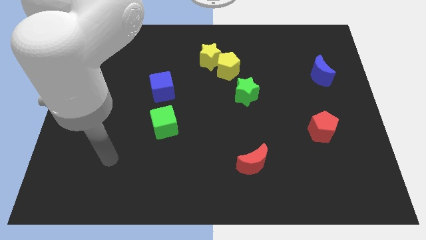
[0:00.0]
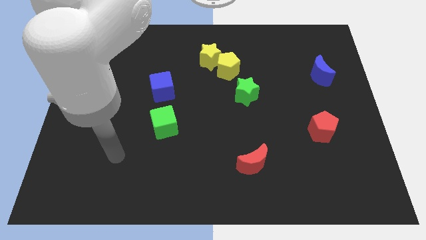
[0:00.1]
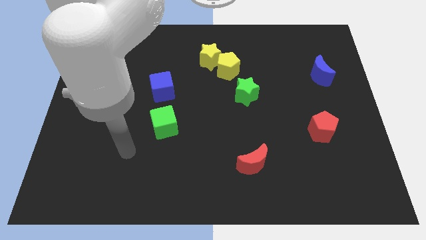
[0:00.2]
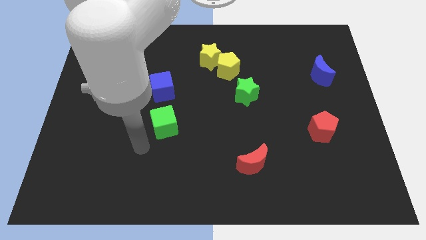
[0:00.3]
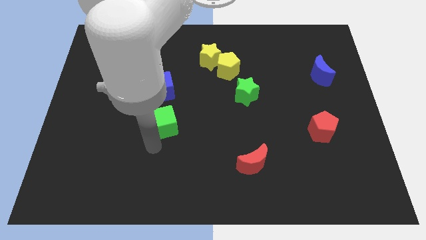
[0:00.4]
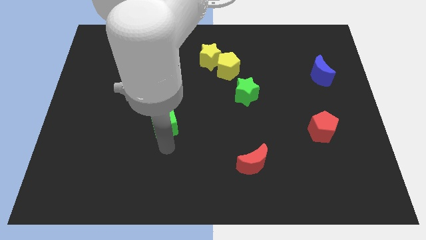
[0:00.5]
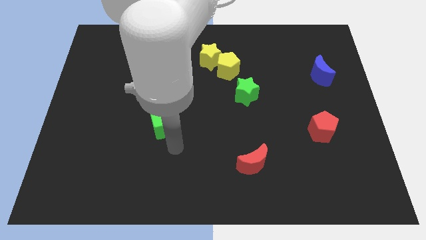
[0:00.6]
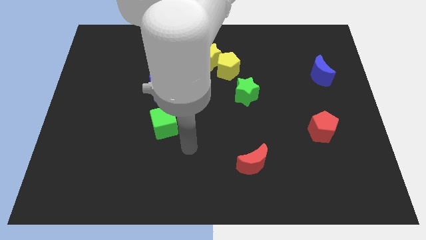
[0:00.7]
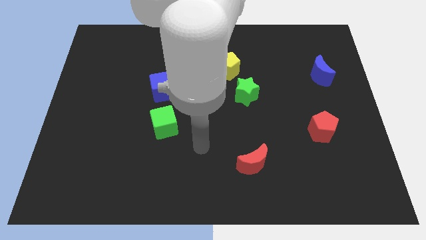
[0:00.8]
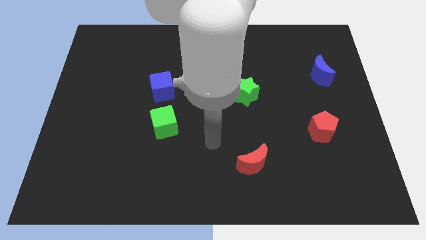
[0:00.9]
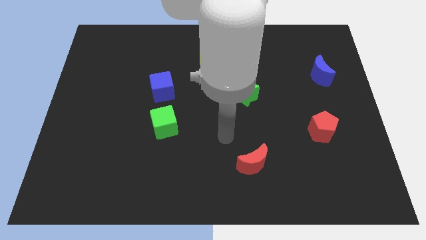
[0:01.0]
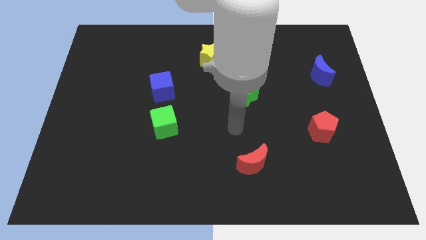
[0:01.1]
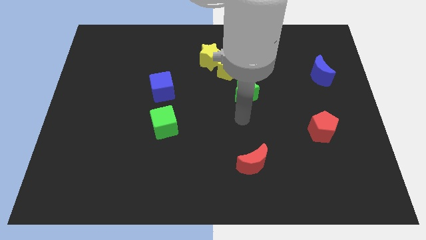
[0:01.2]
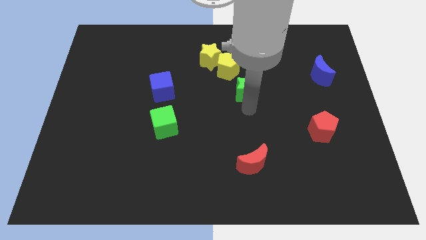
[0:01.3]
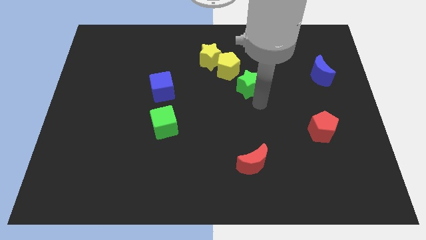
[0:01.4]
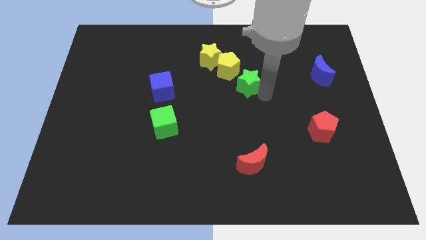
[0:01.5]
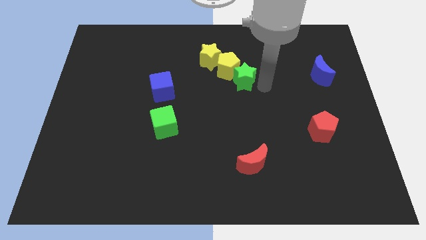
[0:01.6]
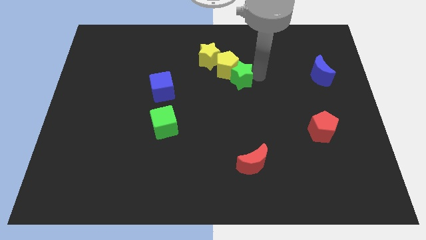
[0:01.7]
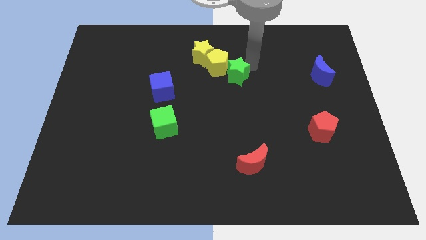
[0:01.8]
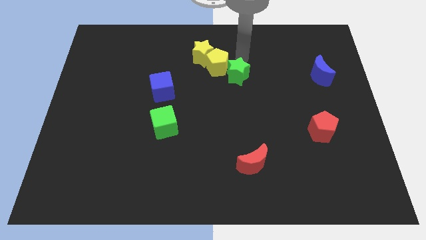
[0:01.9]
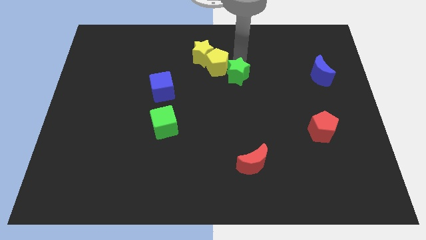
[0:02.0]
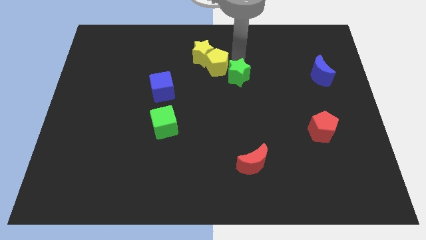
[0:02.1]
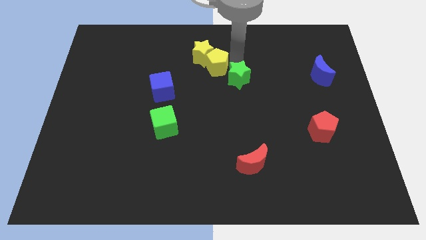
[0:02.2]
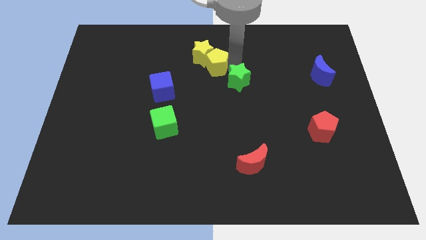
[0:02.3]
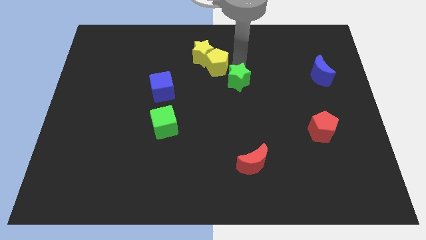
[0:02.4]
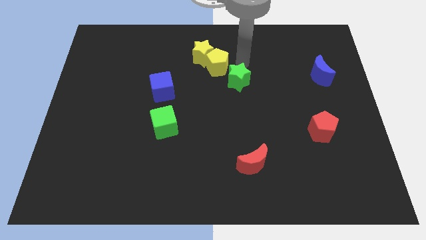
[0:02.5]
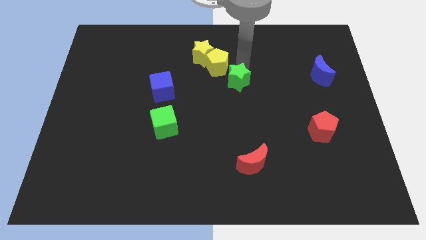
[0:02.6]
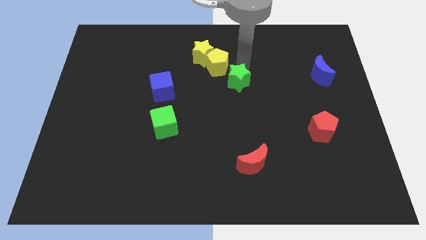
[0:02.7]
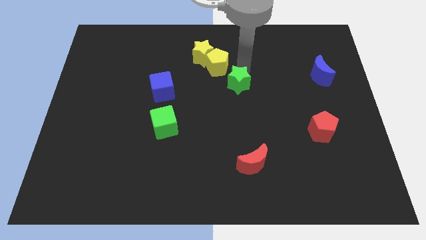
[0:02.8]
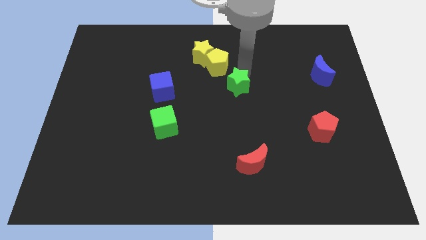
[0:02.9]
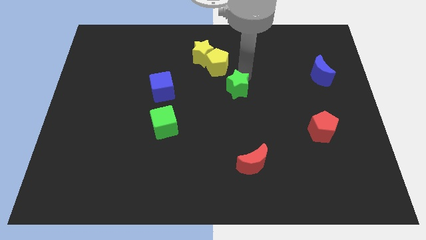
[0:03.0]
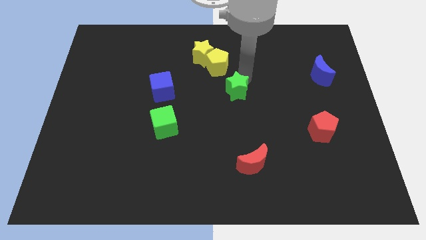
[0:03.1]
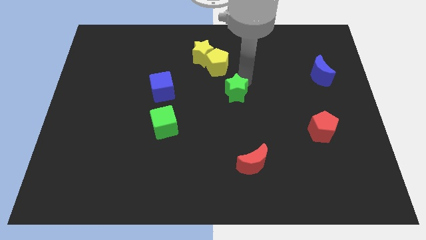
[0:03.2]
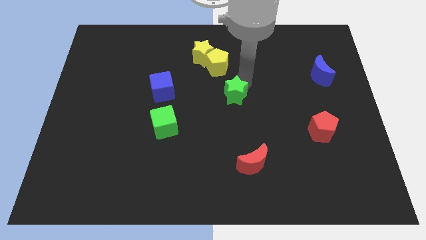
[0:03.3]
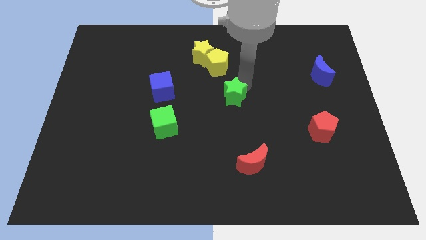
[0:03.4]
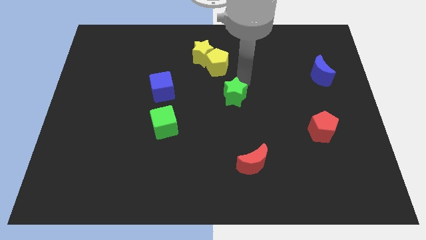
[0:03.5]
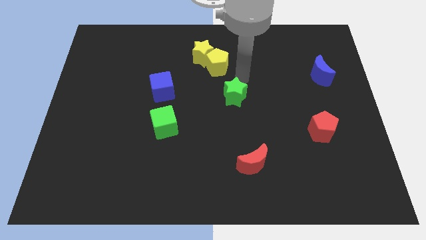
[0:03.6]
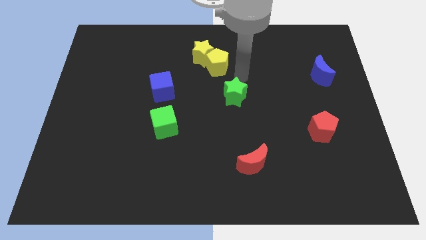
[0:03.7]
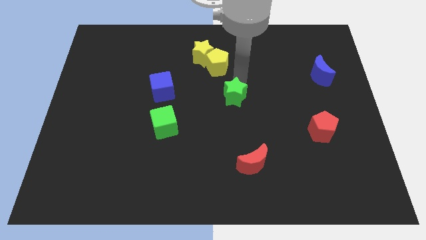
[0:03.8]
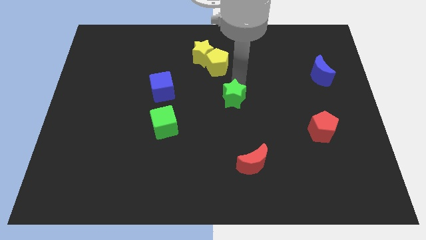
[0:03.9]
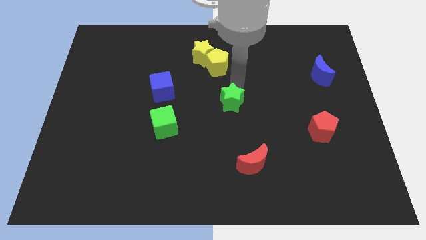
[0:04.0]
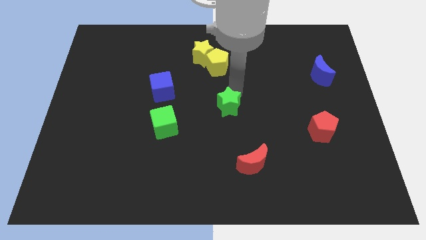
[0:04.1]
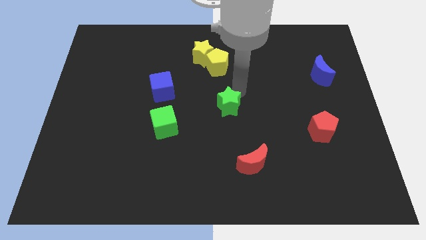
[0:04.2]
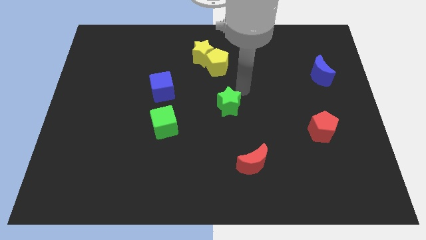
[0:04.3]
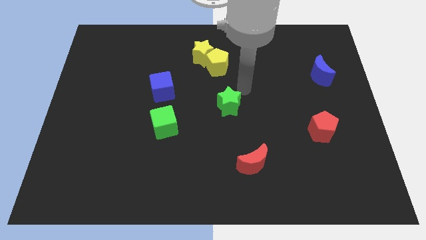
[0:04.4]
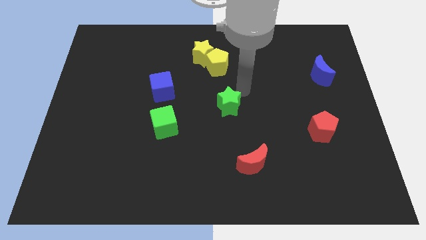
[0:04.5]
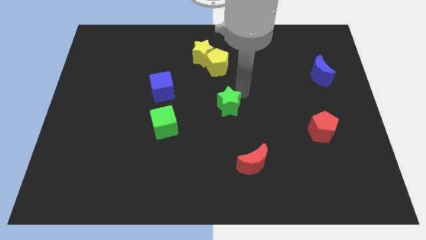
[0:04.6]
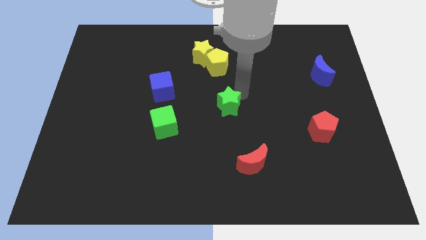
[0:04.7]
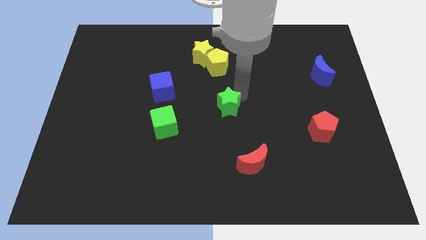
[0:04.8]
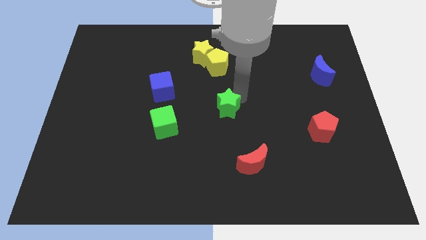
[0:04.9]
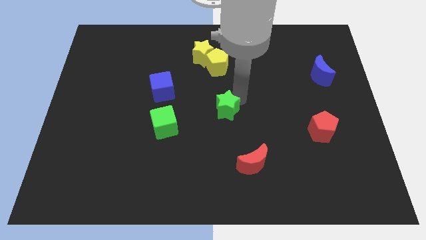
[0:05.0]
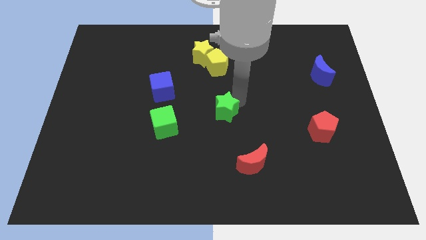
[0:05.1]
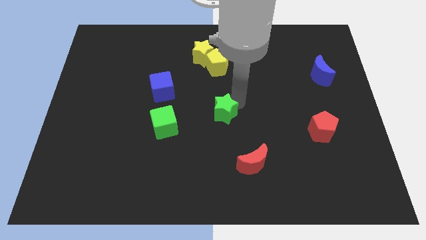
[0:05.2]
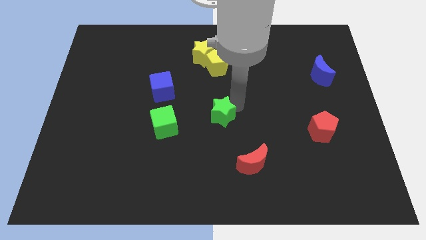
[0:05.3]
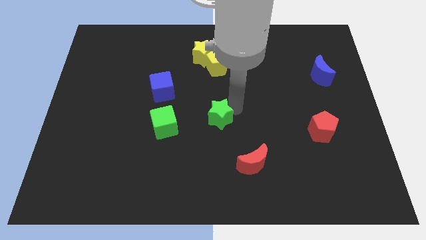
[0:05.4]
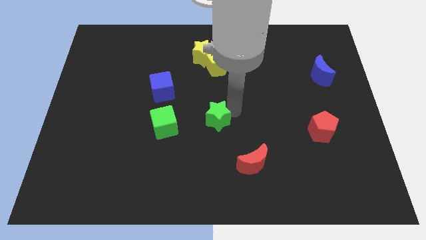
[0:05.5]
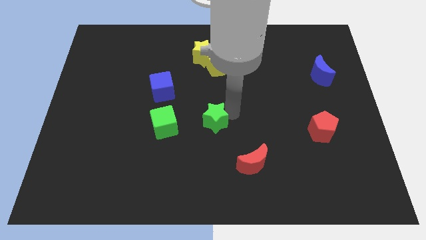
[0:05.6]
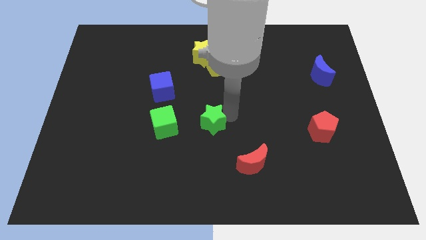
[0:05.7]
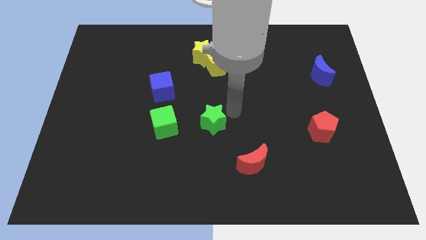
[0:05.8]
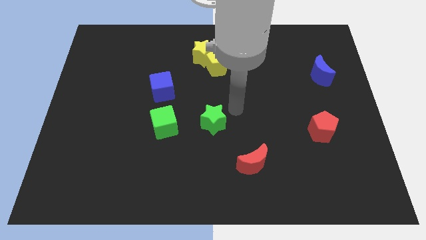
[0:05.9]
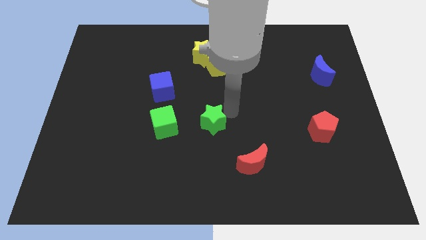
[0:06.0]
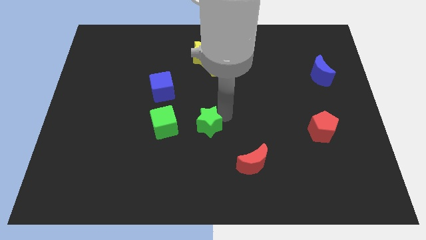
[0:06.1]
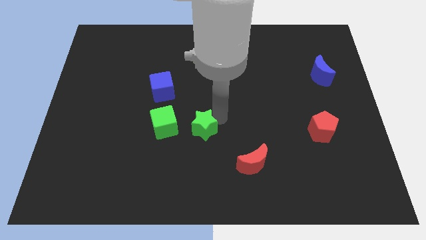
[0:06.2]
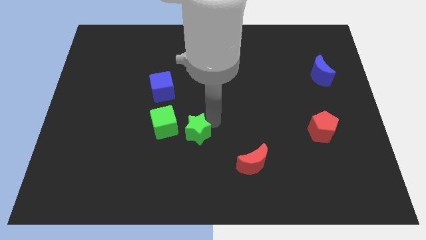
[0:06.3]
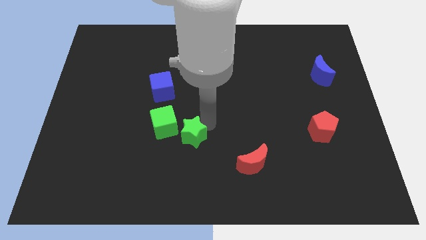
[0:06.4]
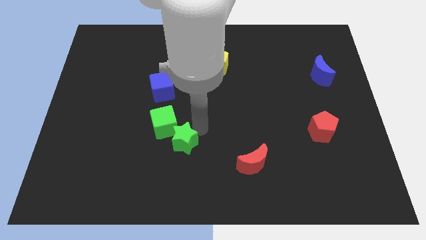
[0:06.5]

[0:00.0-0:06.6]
move the green star to the bottom of the green cube

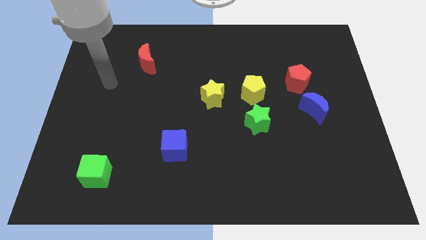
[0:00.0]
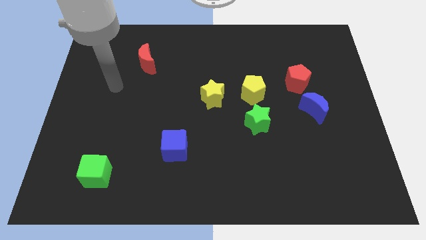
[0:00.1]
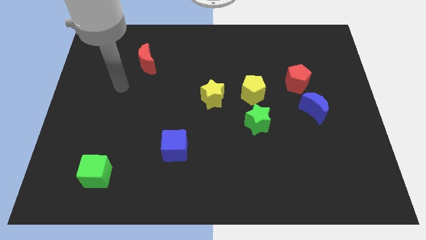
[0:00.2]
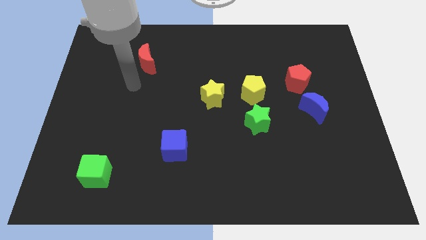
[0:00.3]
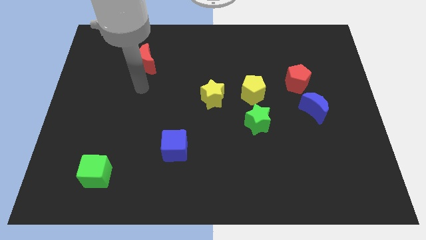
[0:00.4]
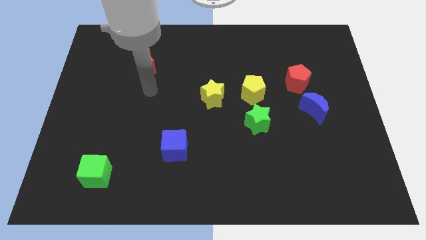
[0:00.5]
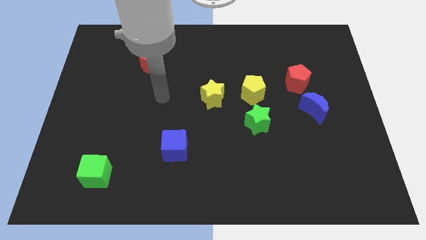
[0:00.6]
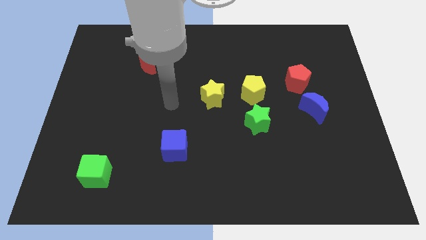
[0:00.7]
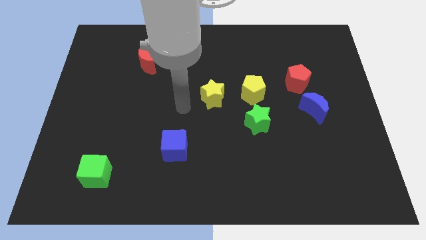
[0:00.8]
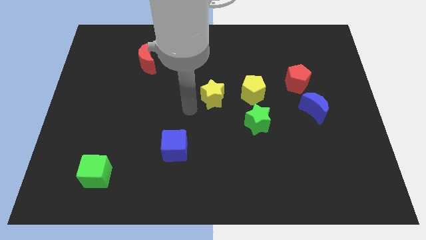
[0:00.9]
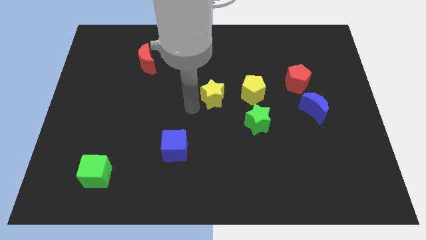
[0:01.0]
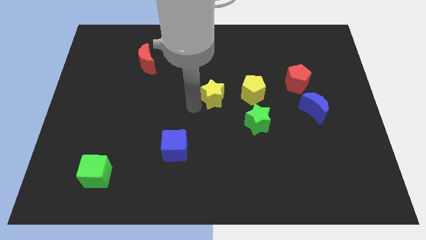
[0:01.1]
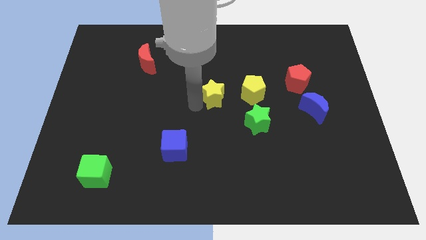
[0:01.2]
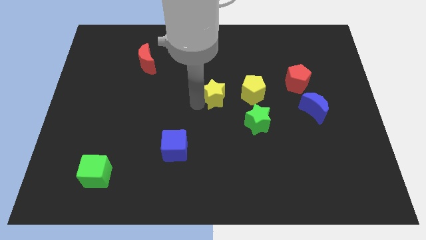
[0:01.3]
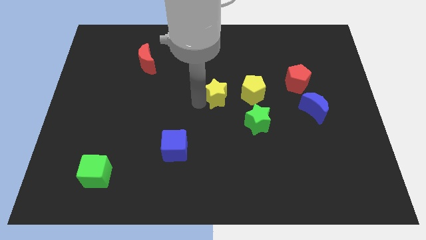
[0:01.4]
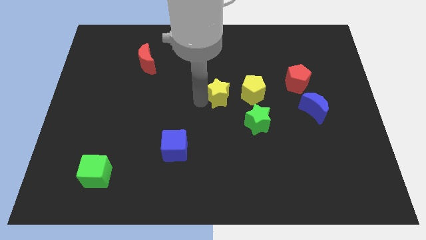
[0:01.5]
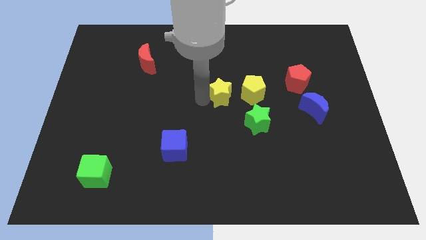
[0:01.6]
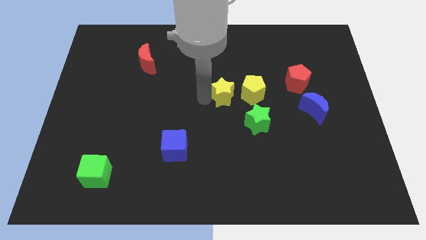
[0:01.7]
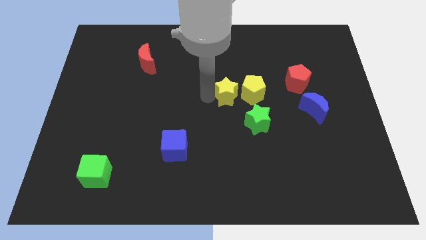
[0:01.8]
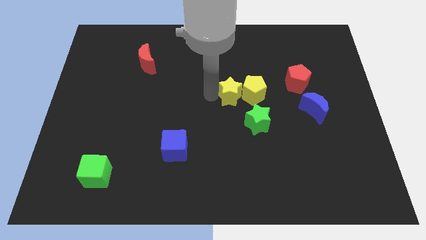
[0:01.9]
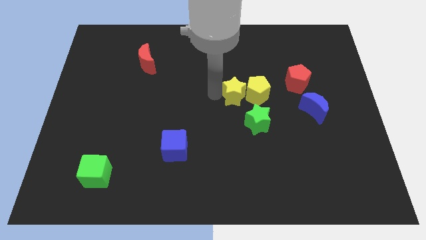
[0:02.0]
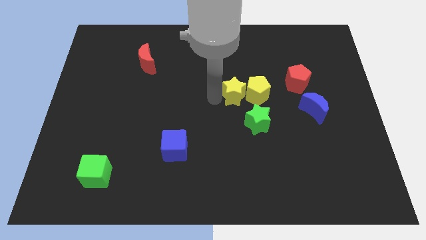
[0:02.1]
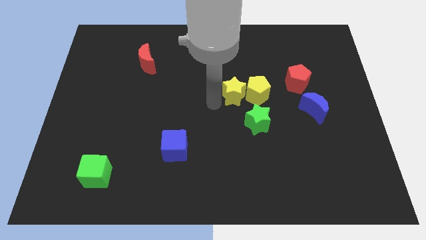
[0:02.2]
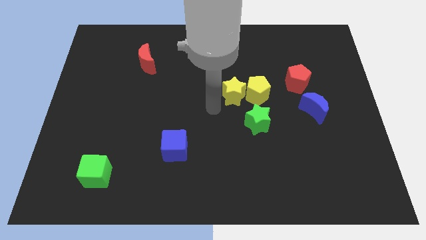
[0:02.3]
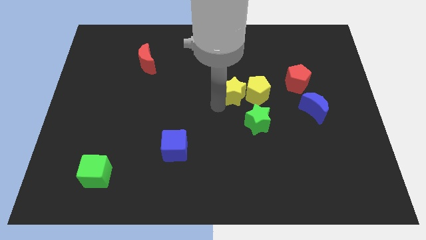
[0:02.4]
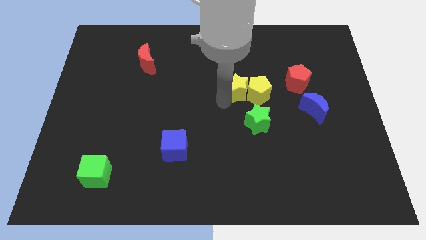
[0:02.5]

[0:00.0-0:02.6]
slide the yellow star just left of the red pentagon
